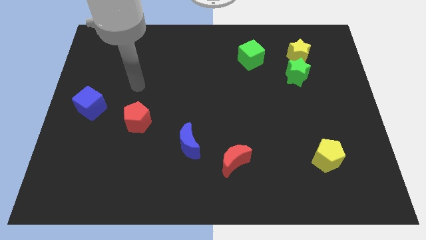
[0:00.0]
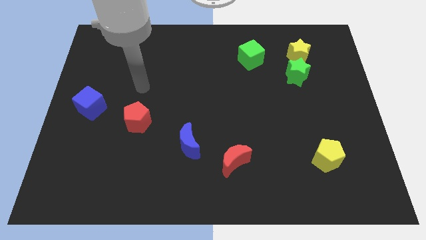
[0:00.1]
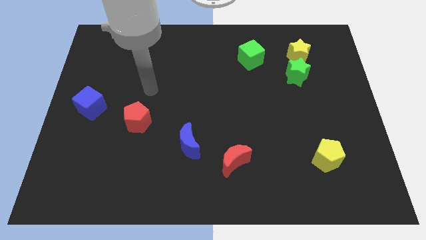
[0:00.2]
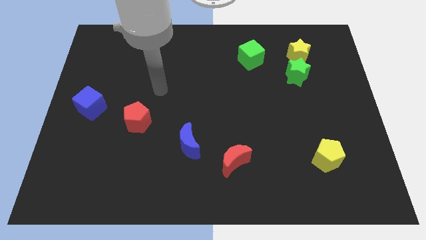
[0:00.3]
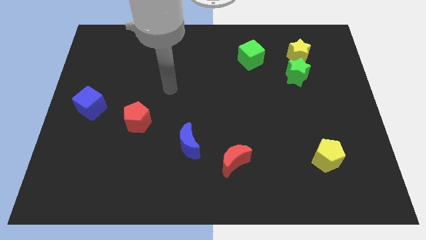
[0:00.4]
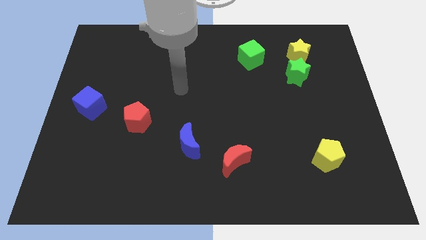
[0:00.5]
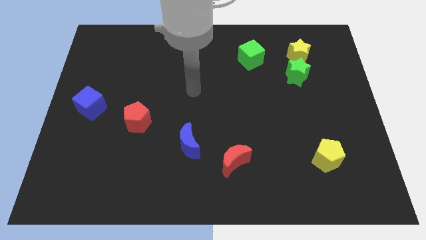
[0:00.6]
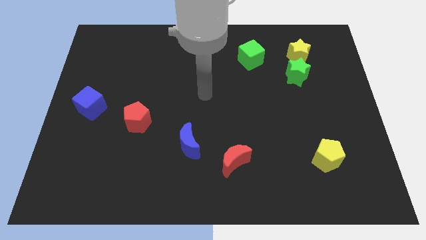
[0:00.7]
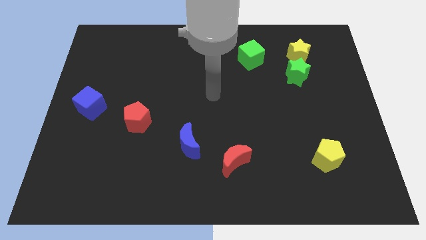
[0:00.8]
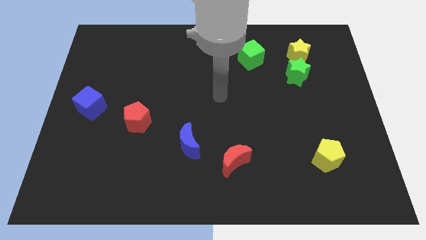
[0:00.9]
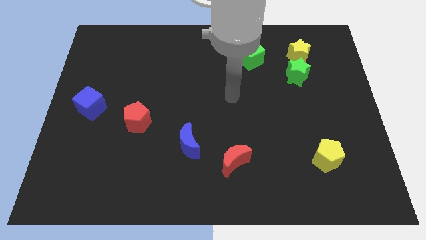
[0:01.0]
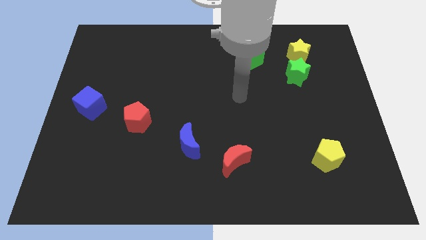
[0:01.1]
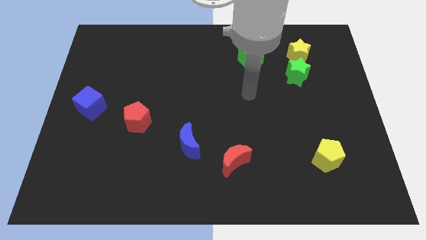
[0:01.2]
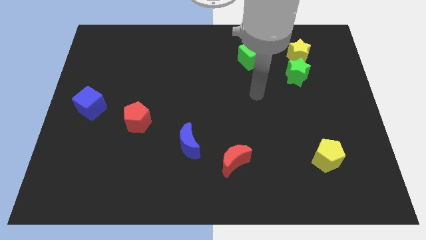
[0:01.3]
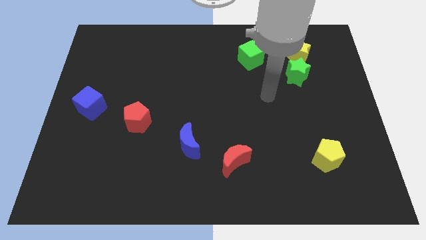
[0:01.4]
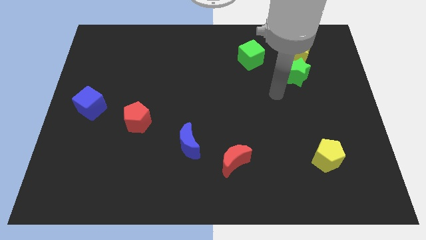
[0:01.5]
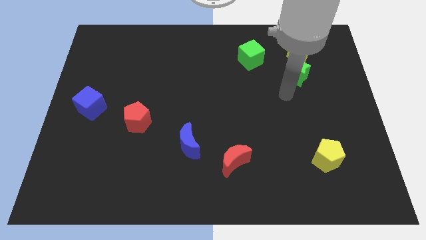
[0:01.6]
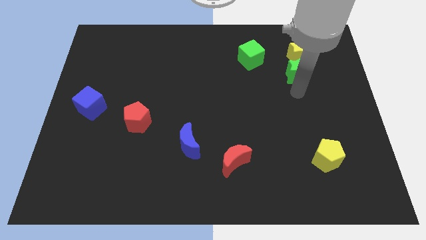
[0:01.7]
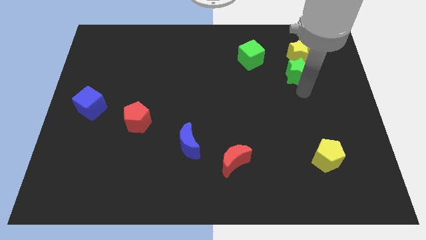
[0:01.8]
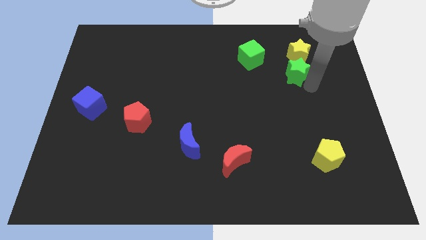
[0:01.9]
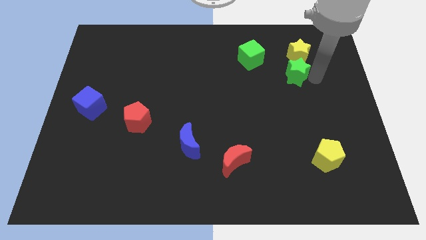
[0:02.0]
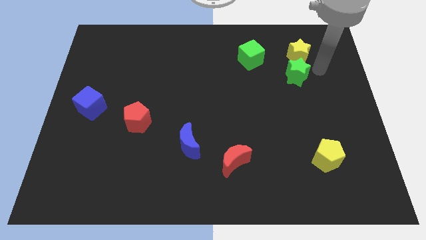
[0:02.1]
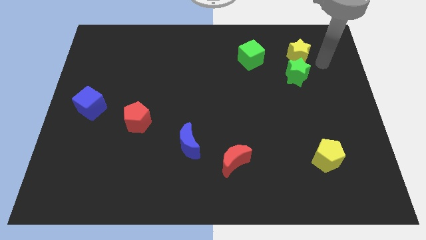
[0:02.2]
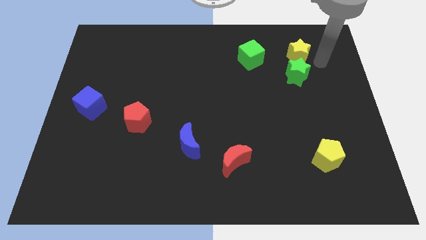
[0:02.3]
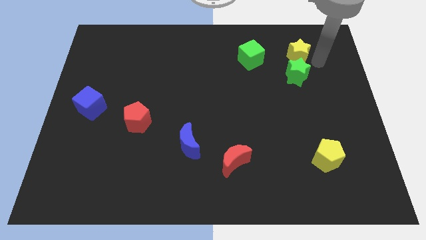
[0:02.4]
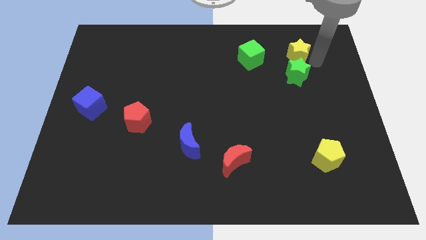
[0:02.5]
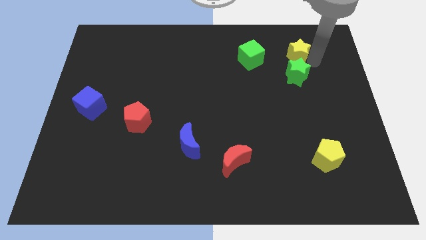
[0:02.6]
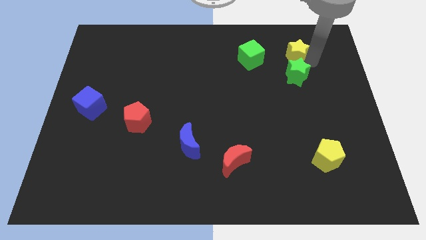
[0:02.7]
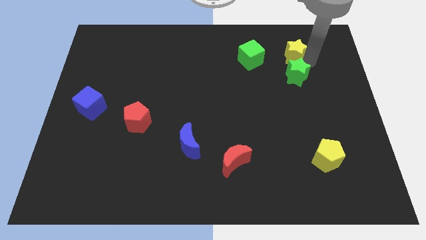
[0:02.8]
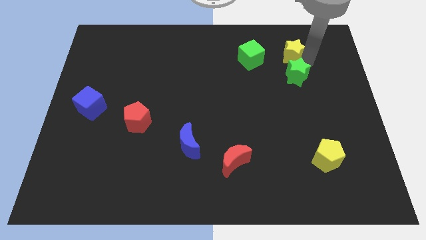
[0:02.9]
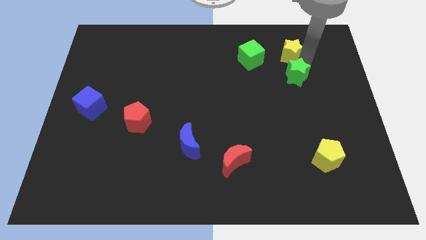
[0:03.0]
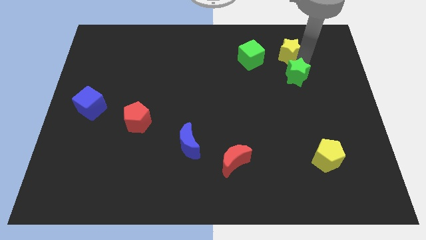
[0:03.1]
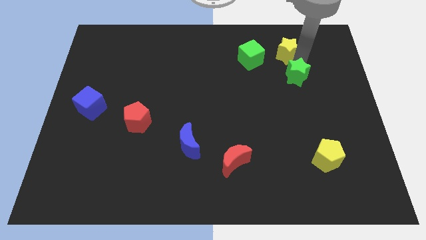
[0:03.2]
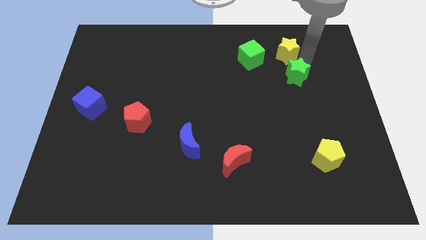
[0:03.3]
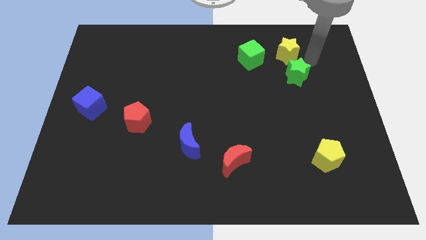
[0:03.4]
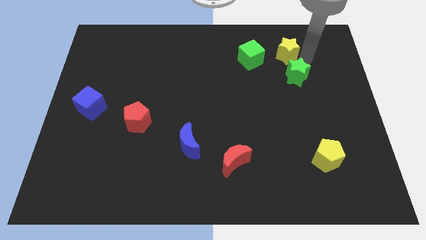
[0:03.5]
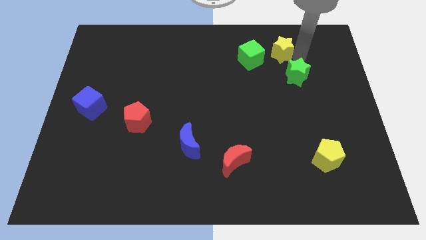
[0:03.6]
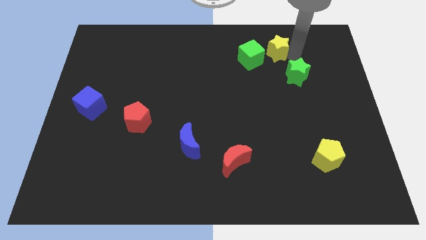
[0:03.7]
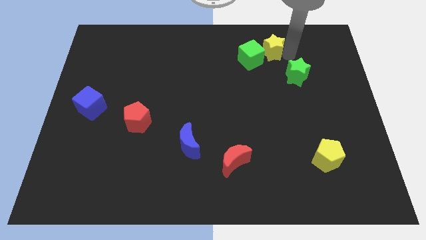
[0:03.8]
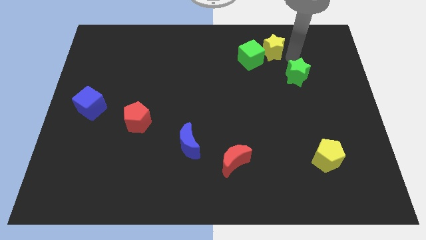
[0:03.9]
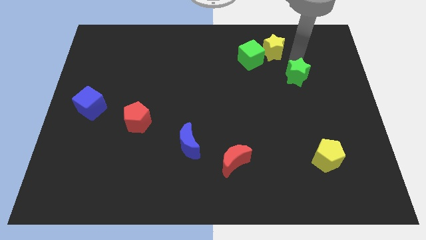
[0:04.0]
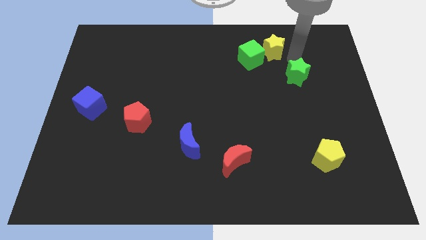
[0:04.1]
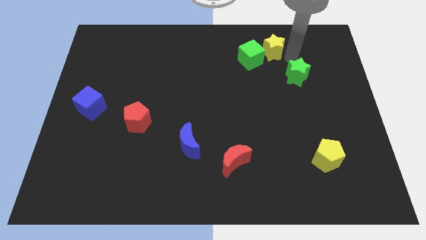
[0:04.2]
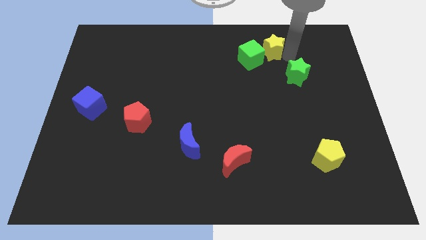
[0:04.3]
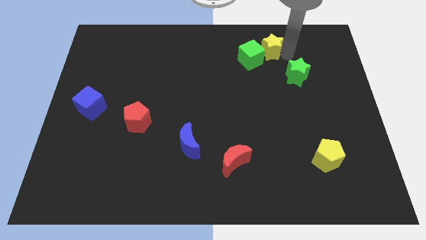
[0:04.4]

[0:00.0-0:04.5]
move the yellow star to the left a little bit

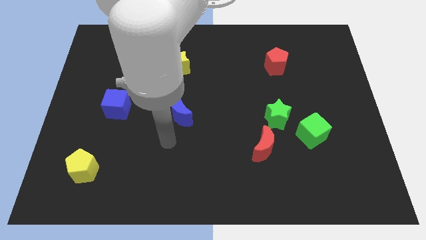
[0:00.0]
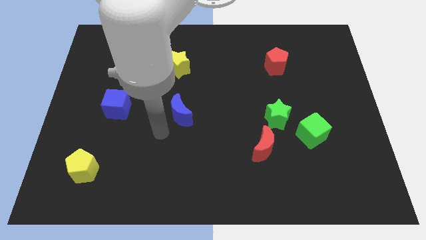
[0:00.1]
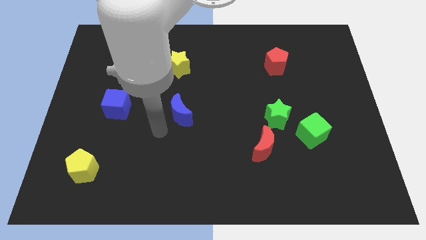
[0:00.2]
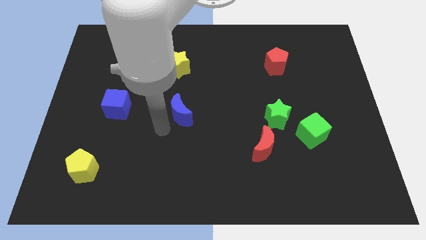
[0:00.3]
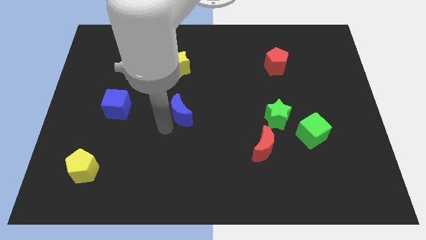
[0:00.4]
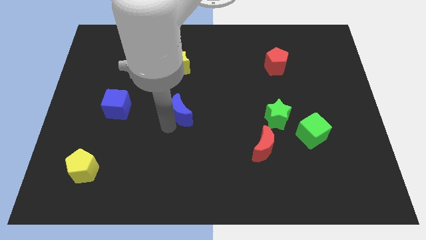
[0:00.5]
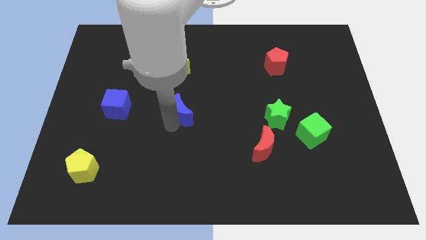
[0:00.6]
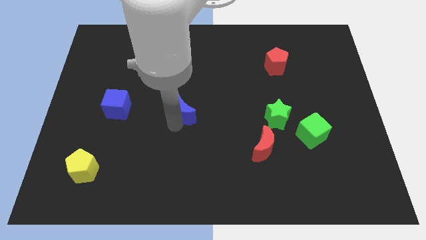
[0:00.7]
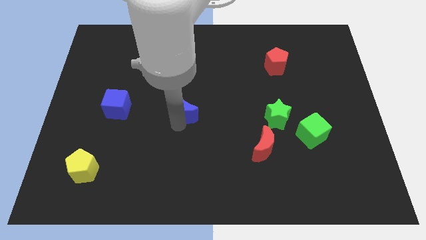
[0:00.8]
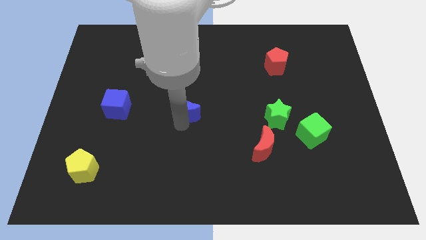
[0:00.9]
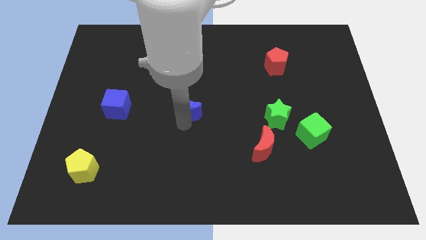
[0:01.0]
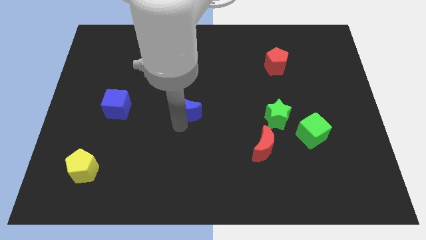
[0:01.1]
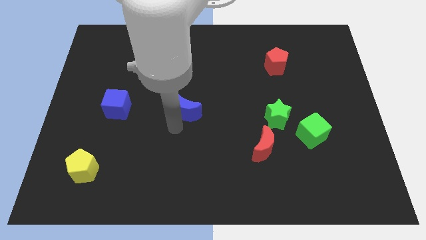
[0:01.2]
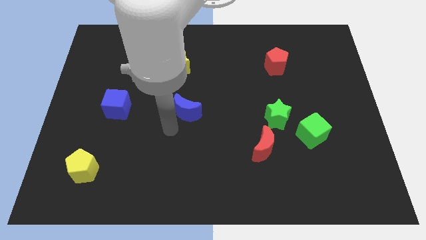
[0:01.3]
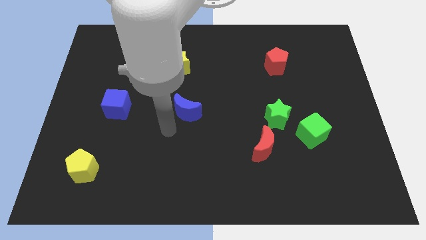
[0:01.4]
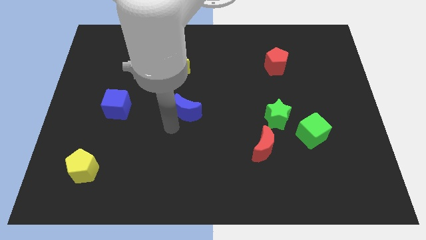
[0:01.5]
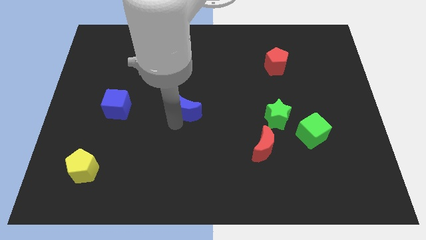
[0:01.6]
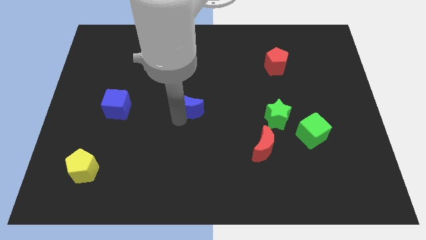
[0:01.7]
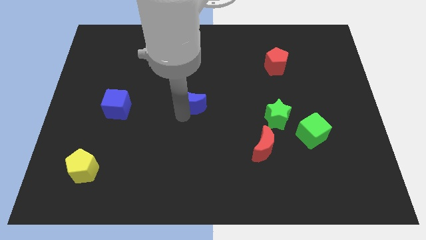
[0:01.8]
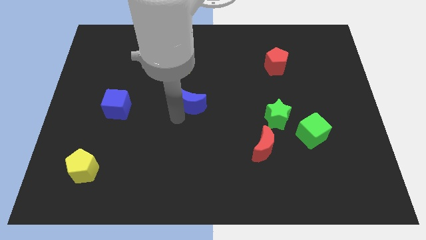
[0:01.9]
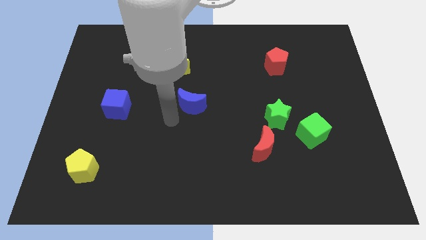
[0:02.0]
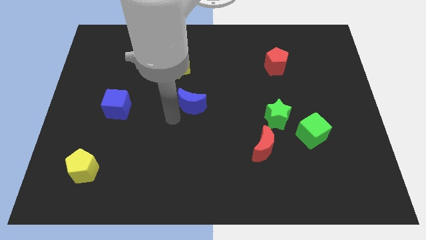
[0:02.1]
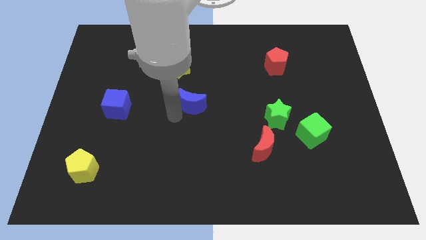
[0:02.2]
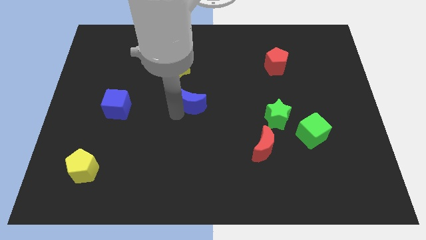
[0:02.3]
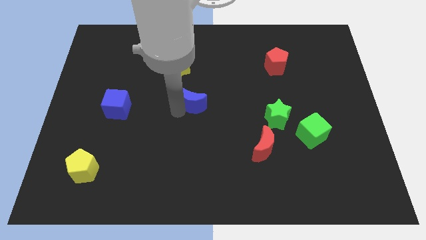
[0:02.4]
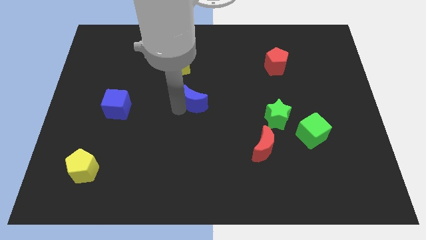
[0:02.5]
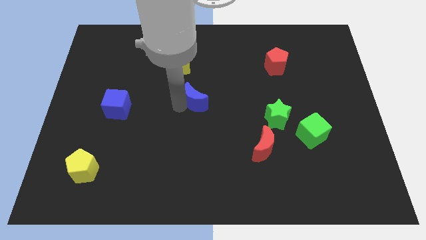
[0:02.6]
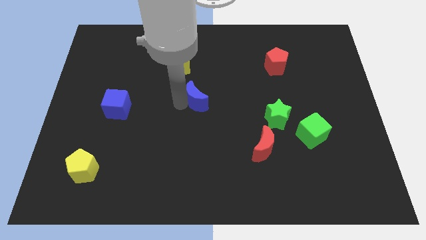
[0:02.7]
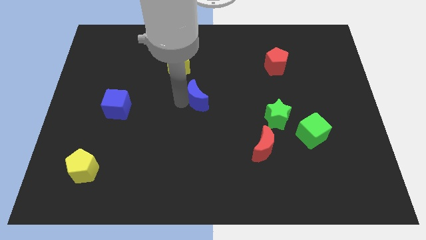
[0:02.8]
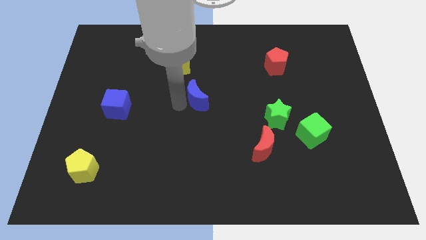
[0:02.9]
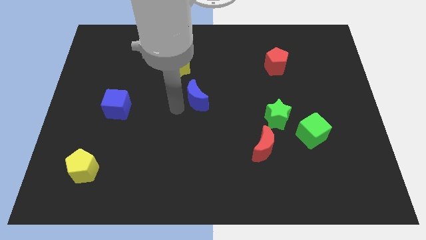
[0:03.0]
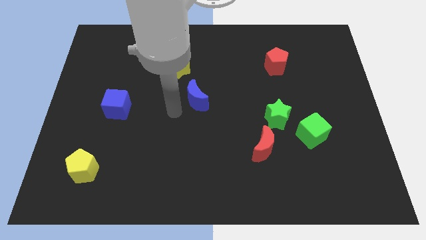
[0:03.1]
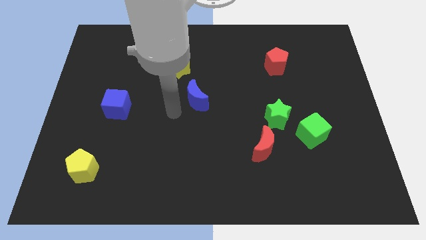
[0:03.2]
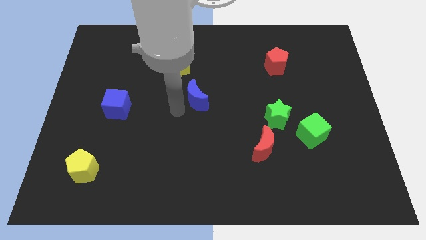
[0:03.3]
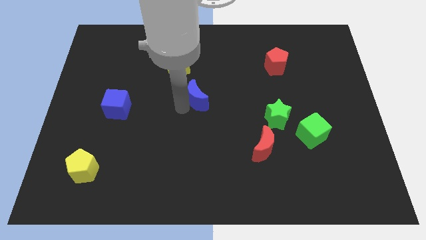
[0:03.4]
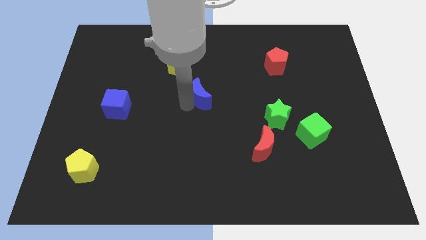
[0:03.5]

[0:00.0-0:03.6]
move the blue moon upwards and right diagonally a little bit
